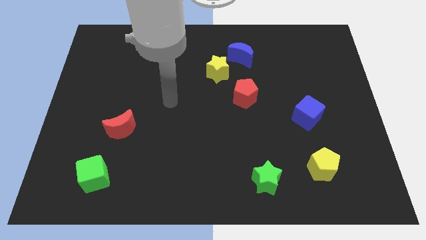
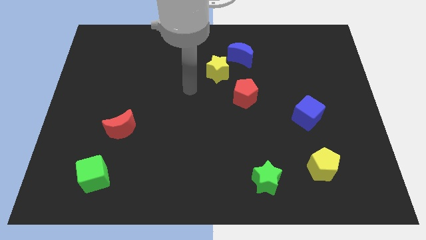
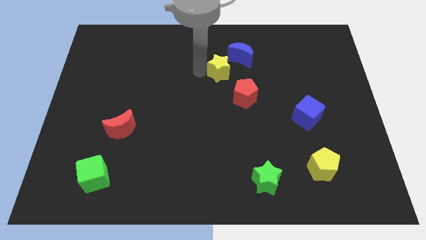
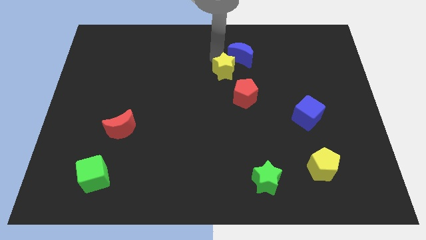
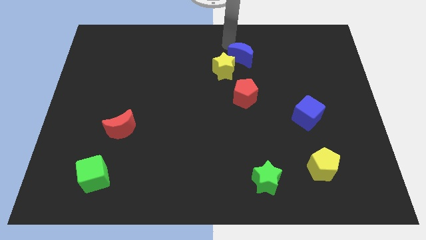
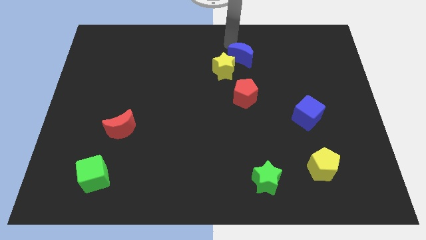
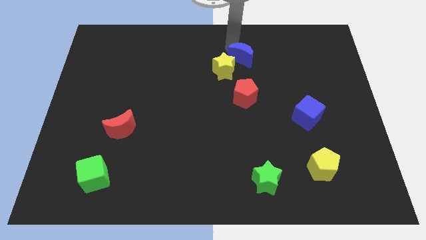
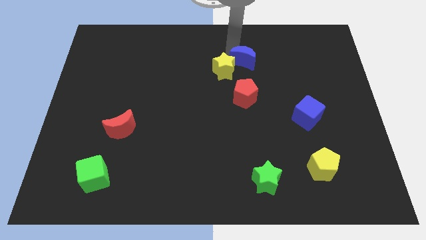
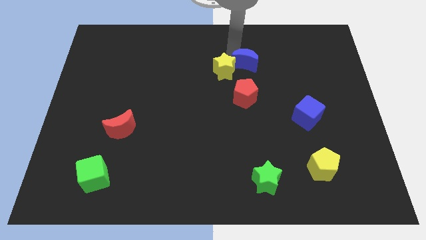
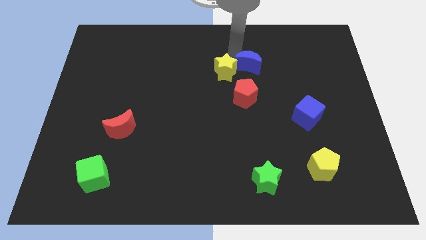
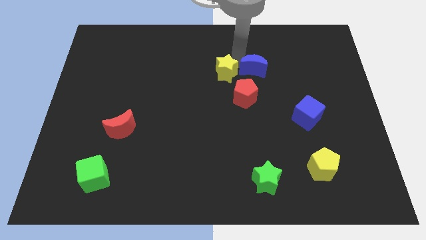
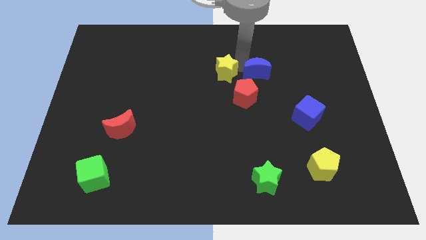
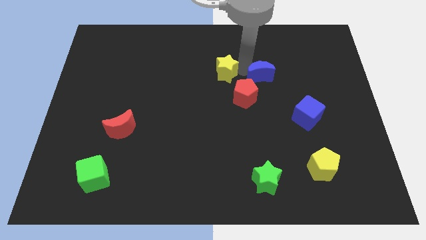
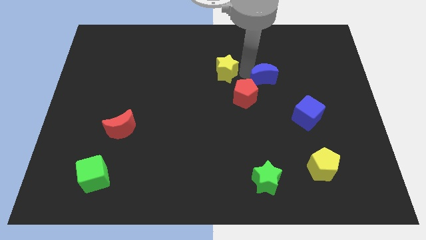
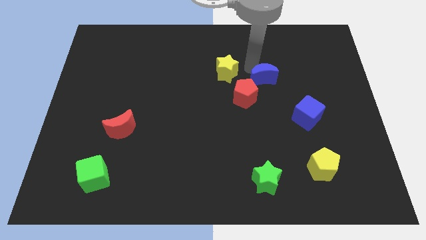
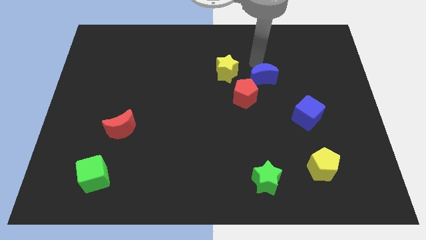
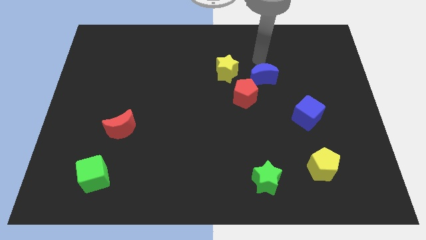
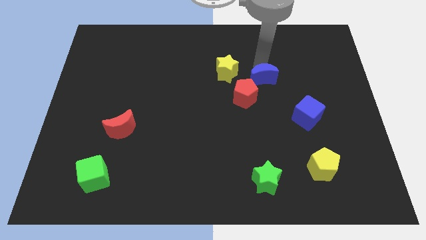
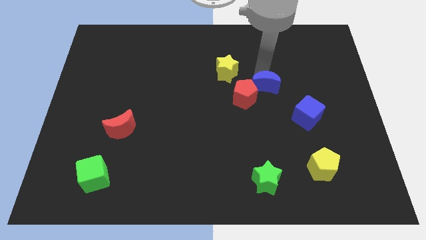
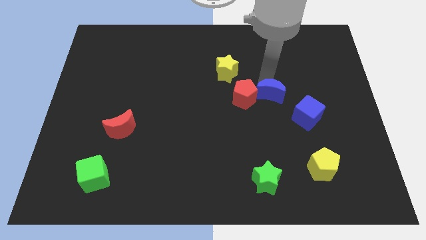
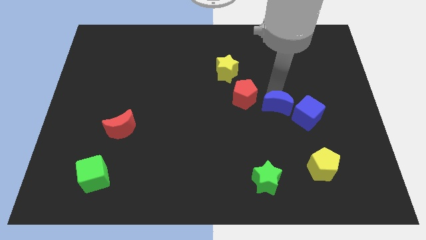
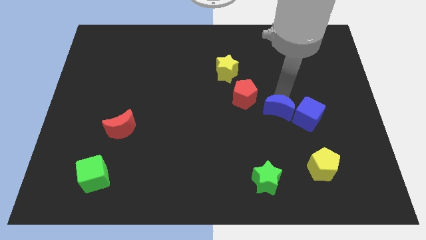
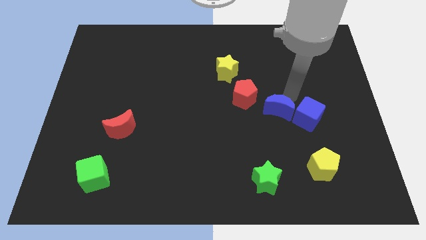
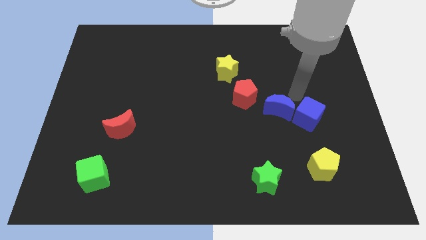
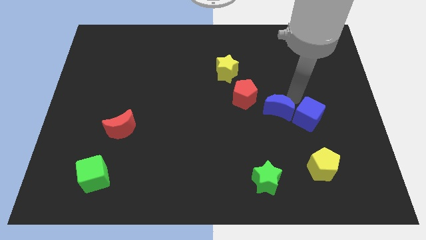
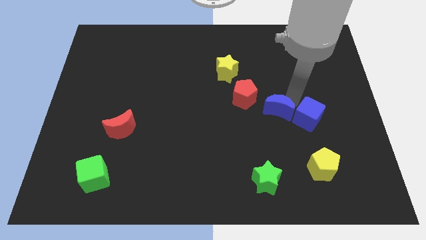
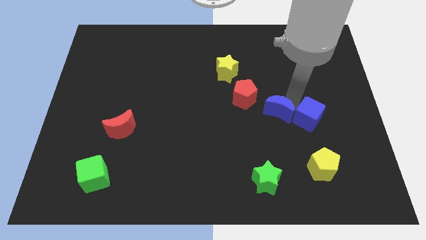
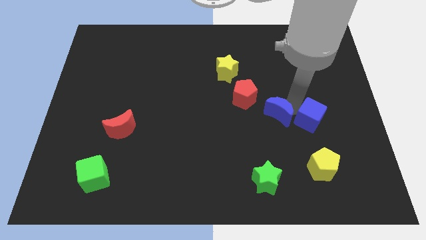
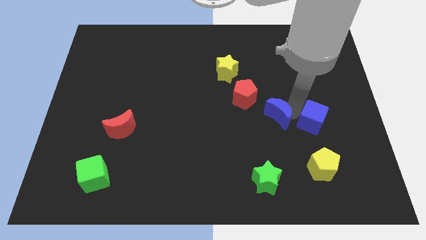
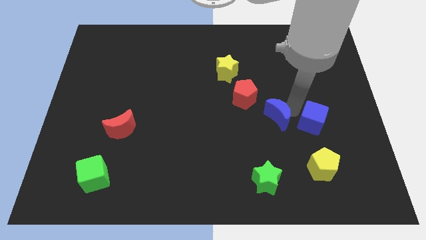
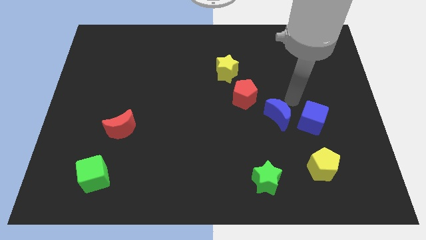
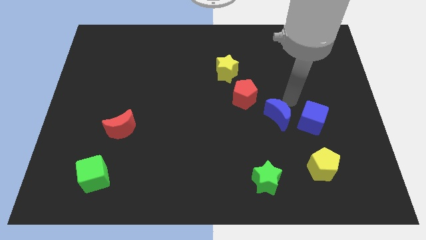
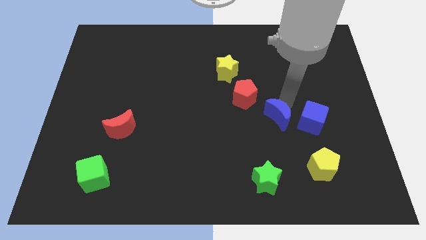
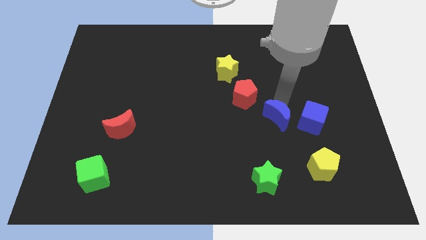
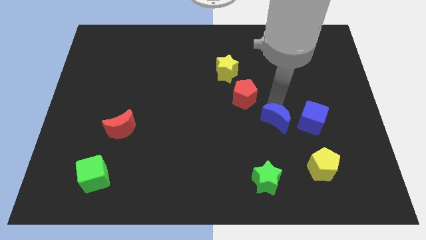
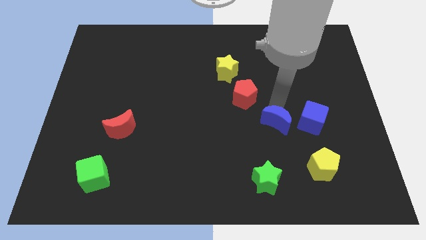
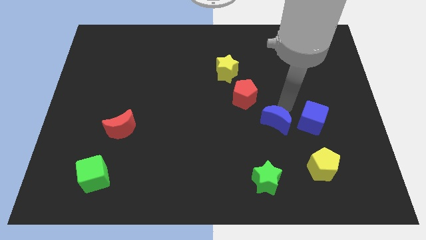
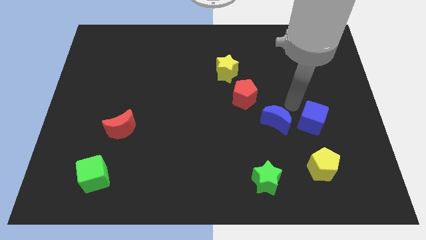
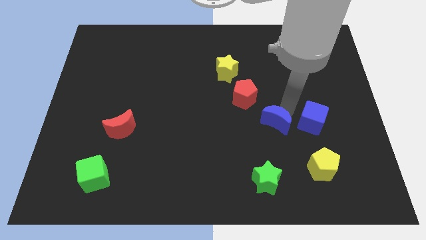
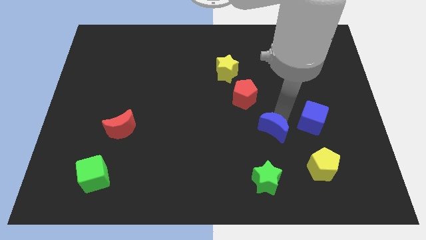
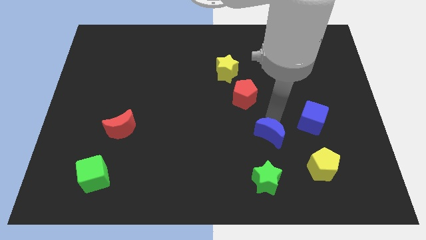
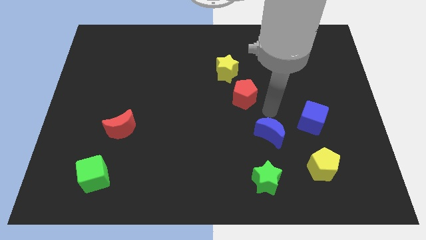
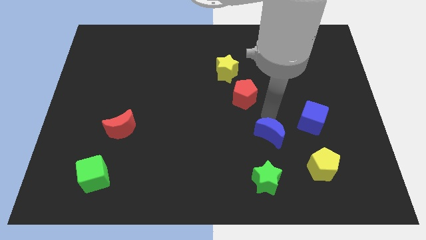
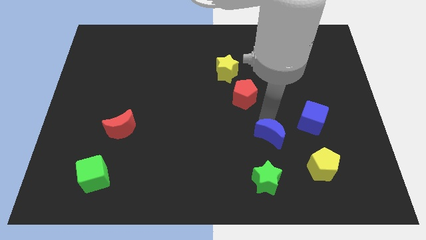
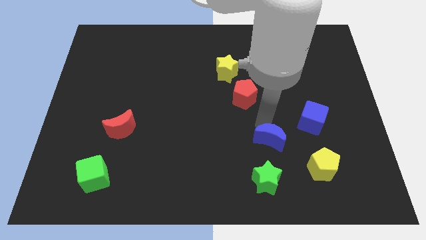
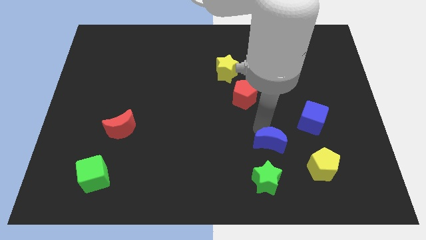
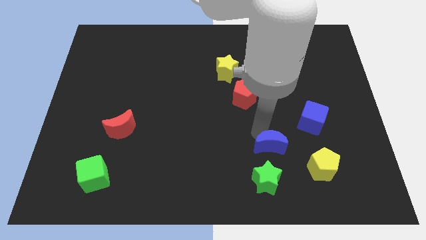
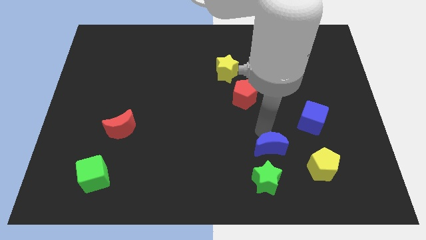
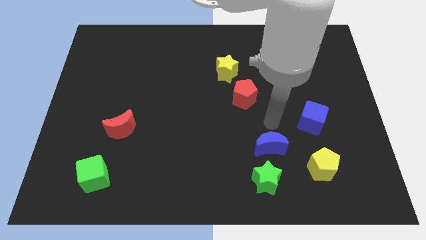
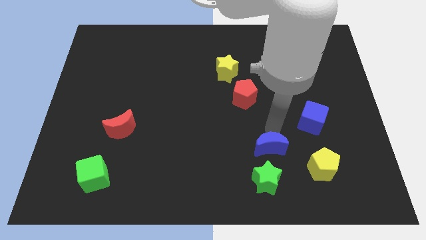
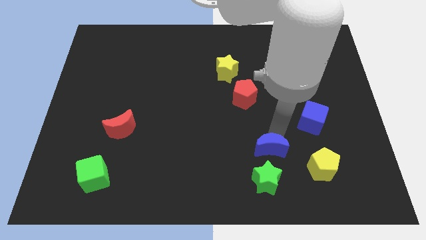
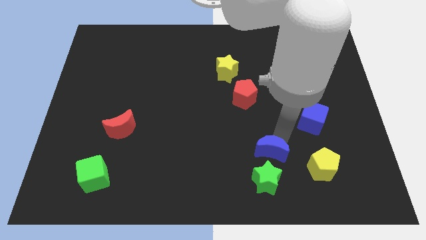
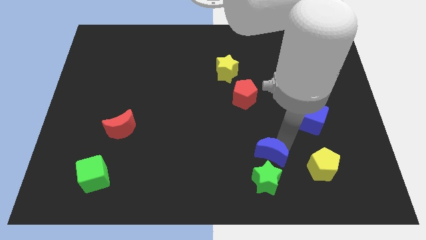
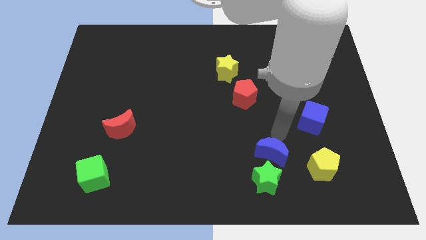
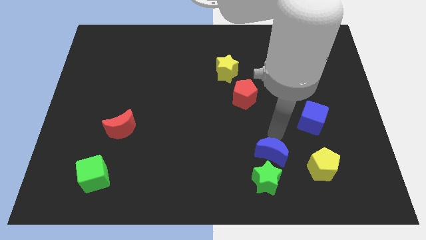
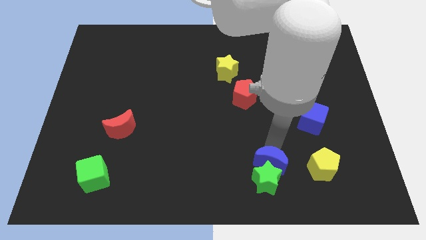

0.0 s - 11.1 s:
move the blue moon to the green star
